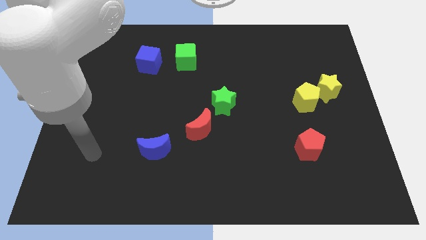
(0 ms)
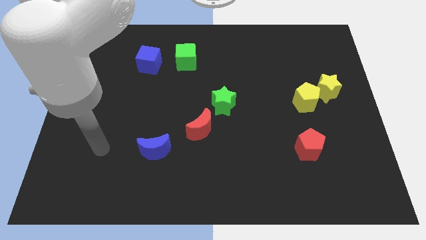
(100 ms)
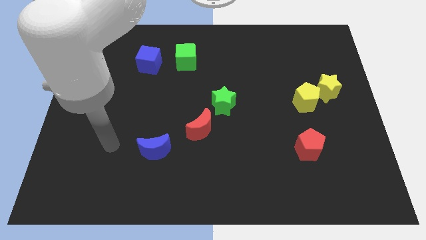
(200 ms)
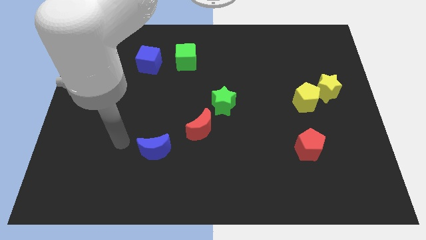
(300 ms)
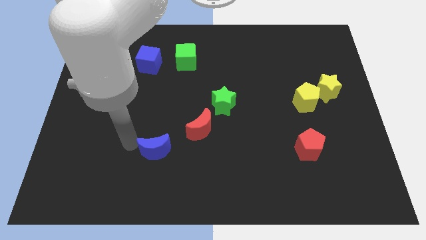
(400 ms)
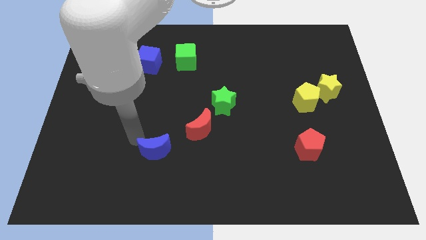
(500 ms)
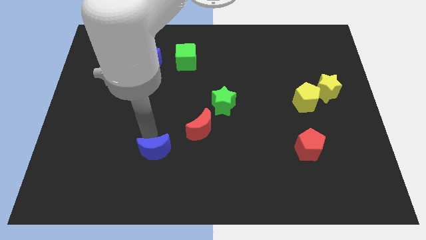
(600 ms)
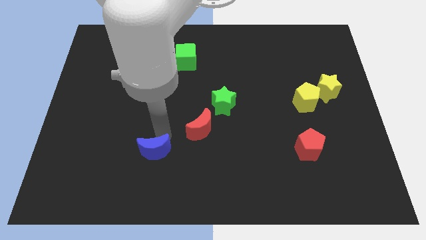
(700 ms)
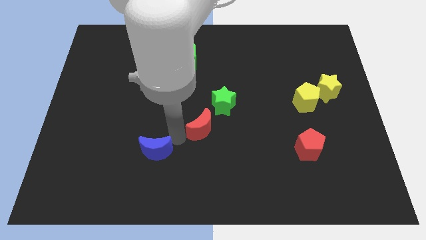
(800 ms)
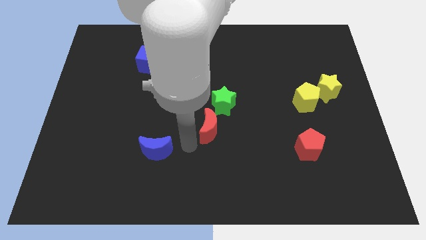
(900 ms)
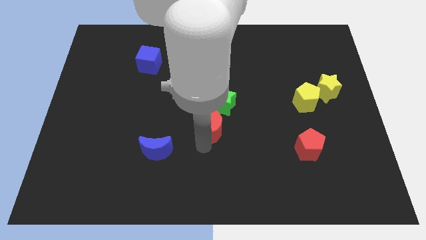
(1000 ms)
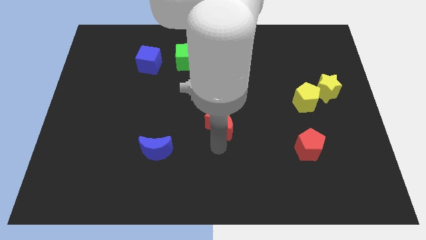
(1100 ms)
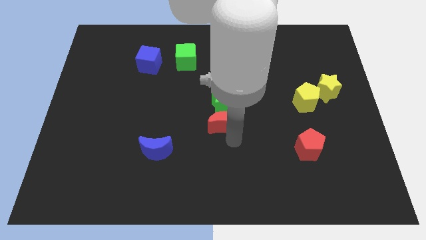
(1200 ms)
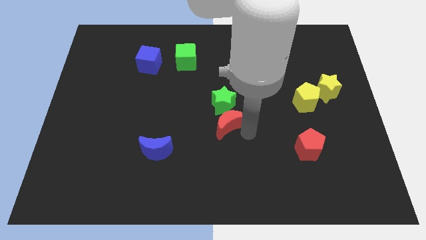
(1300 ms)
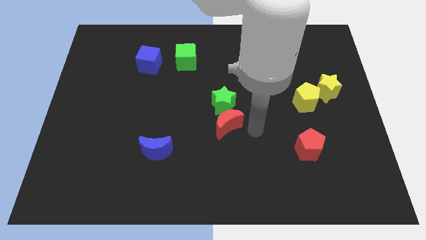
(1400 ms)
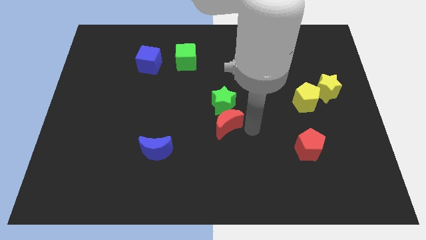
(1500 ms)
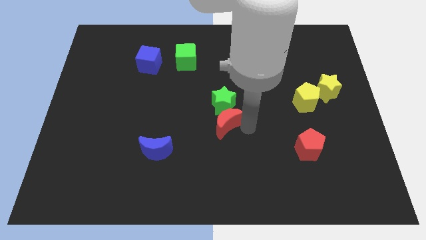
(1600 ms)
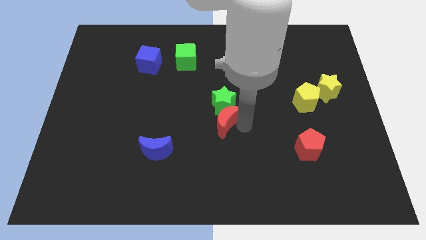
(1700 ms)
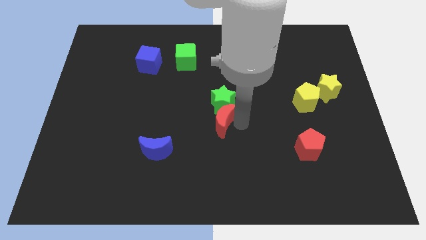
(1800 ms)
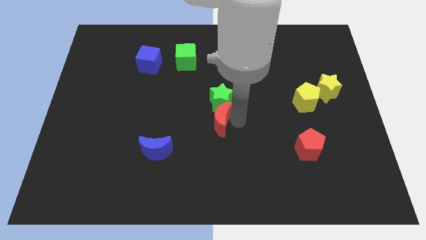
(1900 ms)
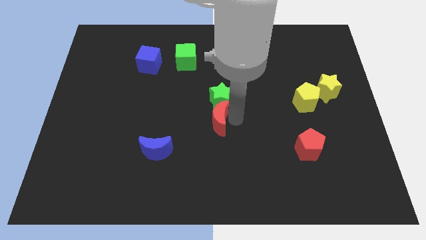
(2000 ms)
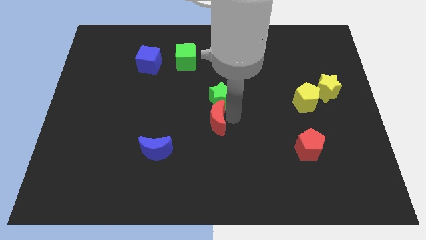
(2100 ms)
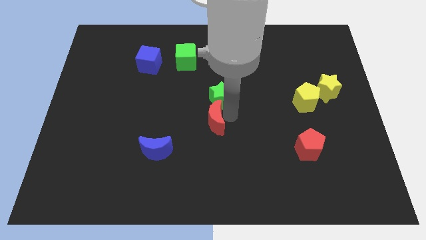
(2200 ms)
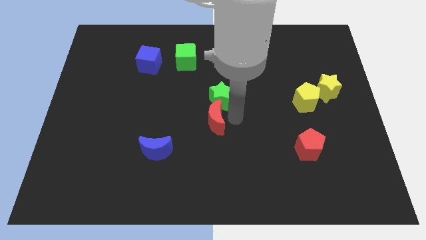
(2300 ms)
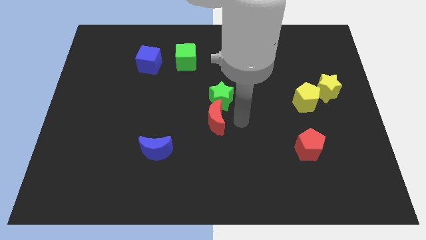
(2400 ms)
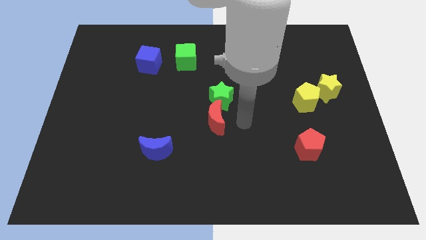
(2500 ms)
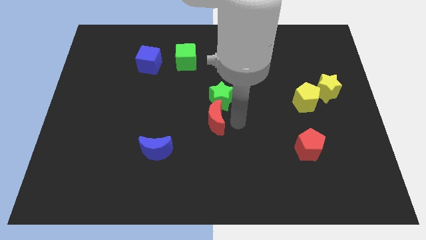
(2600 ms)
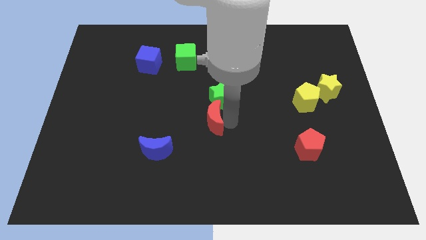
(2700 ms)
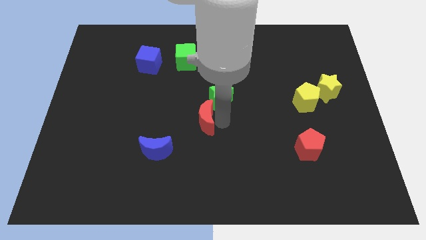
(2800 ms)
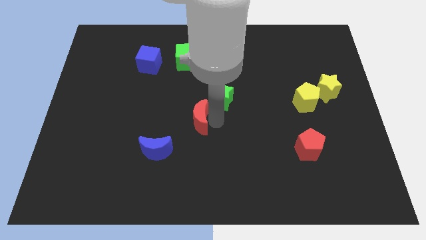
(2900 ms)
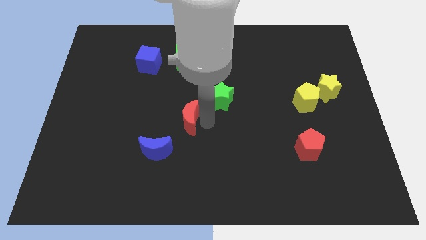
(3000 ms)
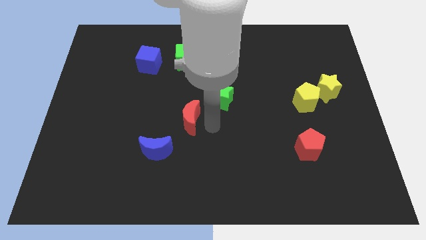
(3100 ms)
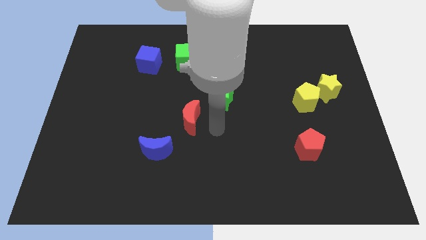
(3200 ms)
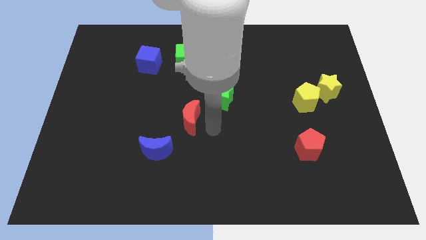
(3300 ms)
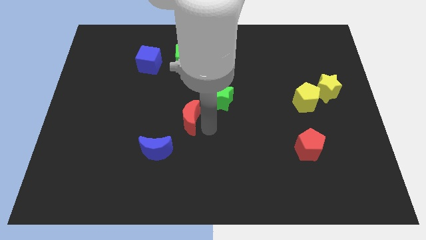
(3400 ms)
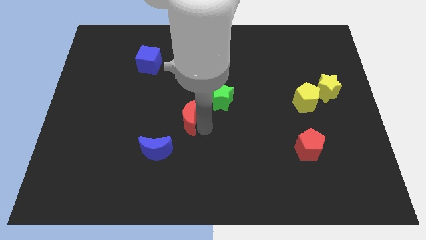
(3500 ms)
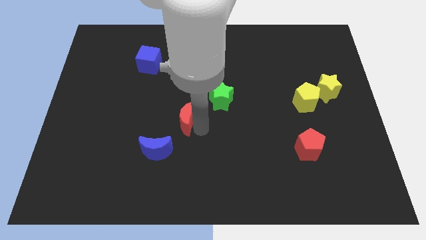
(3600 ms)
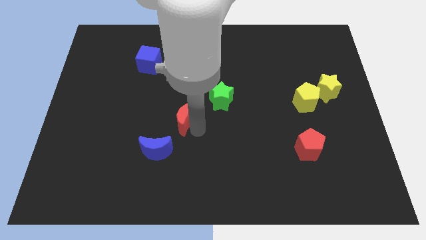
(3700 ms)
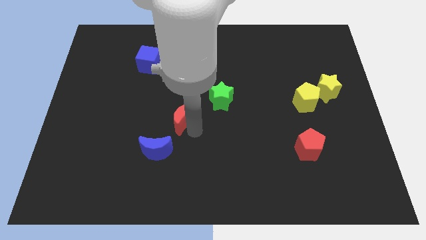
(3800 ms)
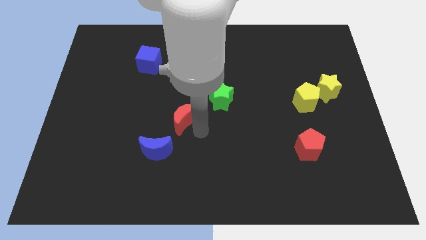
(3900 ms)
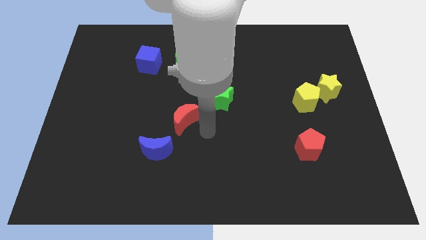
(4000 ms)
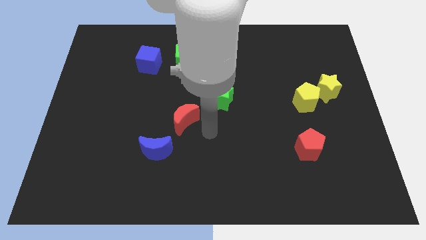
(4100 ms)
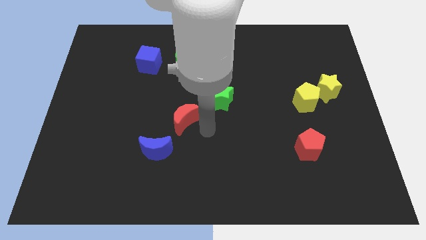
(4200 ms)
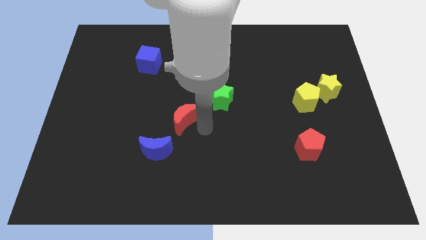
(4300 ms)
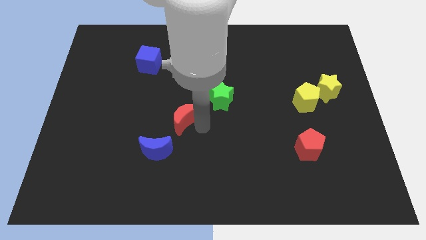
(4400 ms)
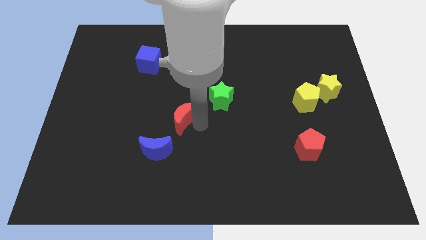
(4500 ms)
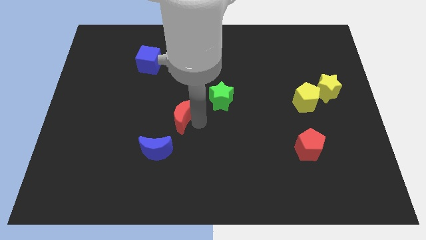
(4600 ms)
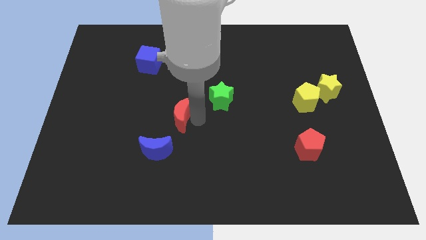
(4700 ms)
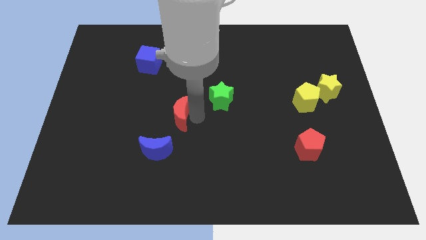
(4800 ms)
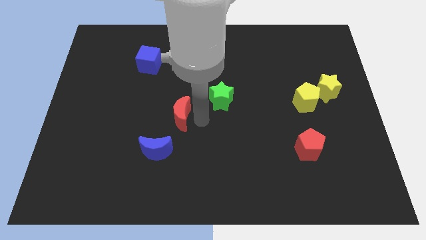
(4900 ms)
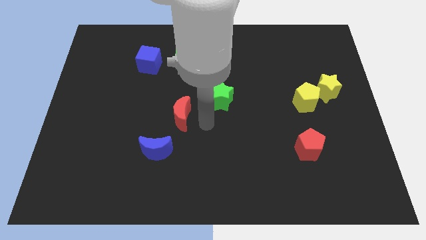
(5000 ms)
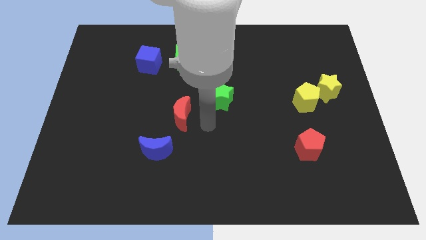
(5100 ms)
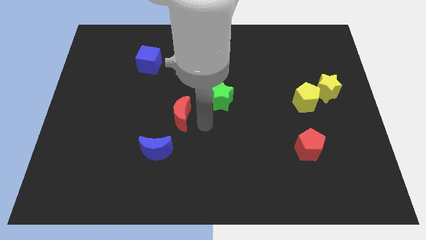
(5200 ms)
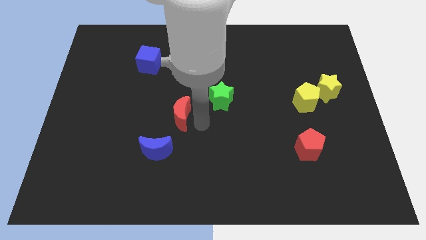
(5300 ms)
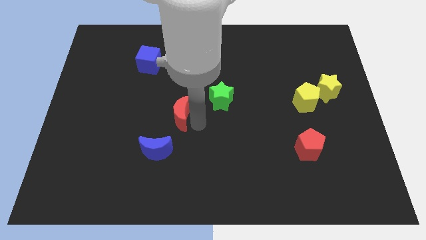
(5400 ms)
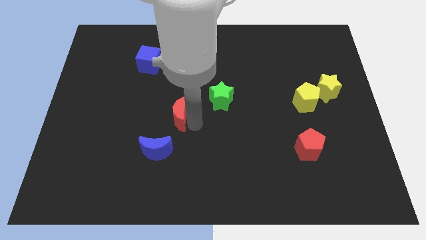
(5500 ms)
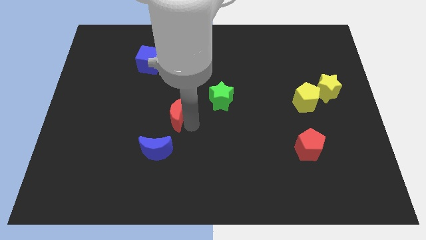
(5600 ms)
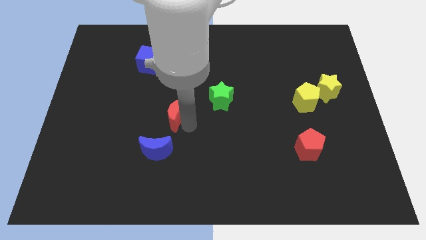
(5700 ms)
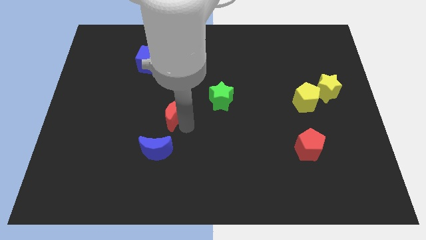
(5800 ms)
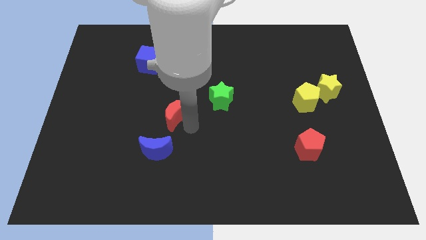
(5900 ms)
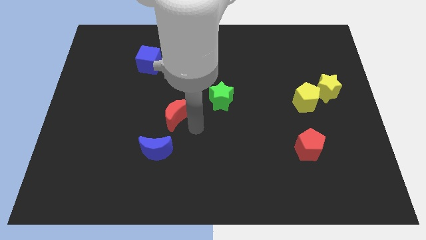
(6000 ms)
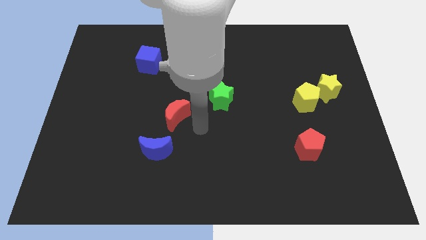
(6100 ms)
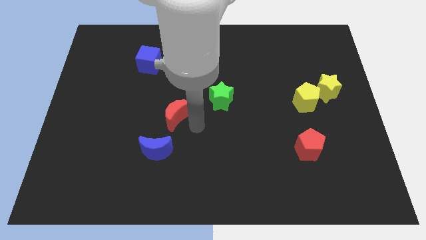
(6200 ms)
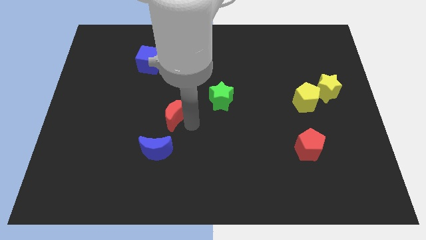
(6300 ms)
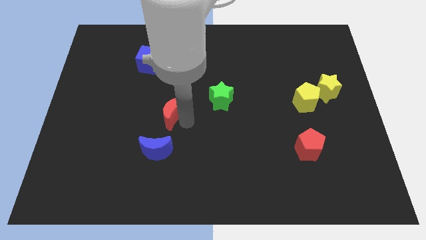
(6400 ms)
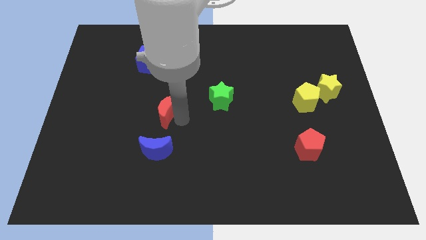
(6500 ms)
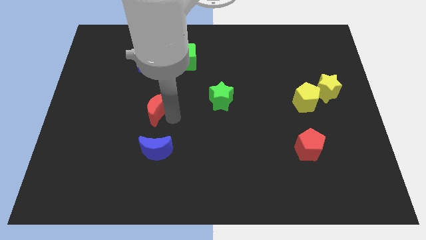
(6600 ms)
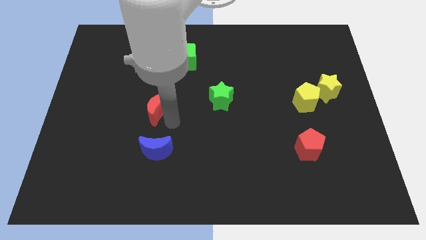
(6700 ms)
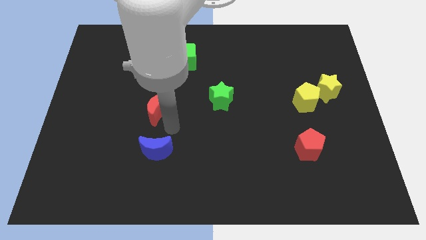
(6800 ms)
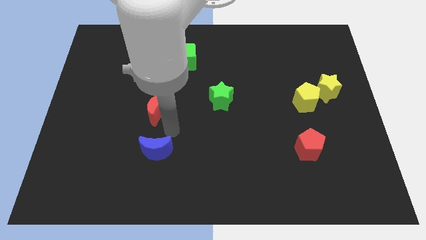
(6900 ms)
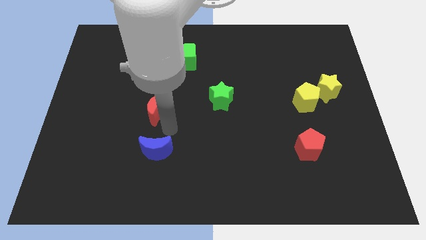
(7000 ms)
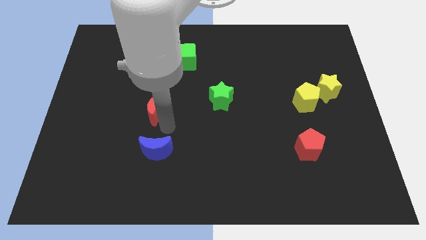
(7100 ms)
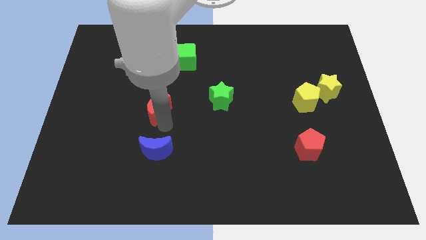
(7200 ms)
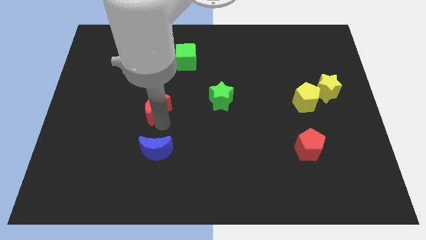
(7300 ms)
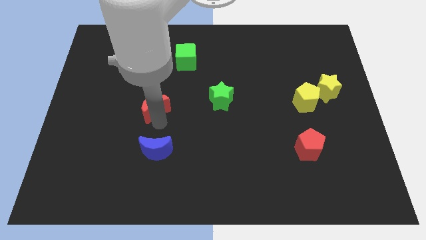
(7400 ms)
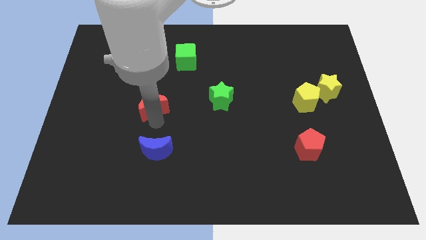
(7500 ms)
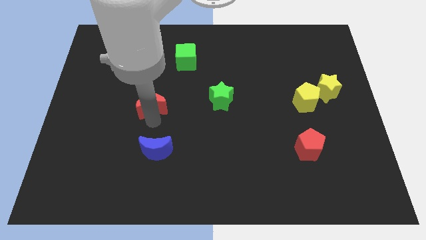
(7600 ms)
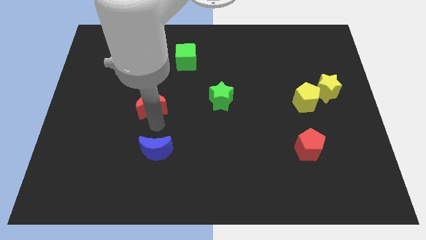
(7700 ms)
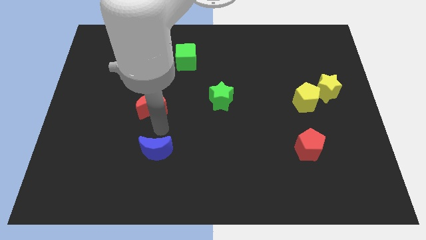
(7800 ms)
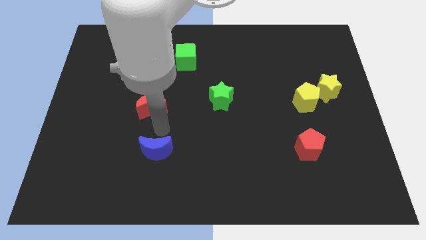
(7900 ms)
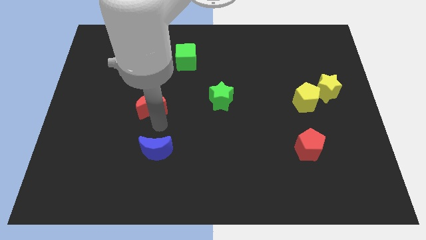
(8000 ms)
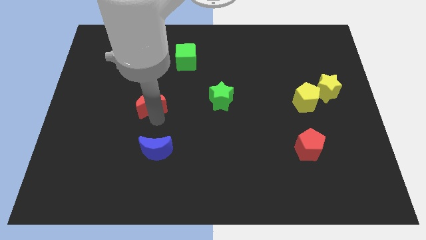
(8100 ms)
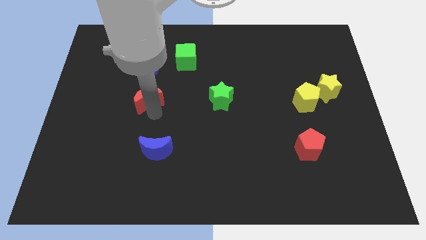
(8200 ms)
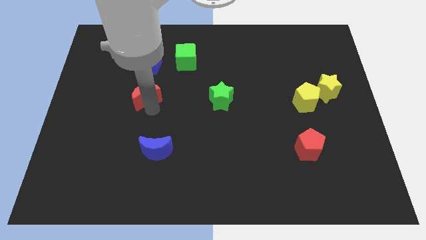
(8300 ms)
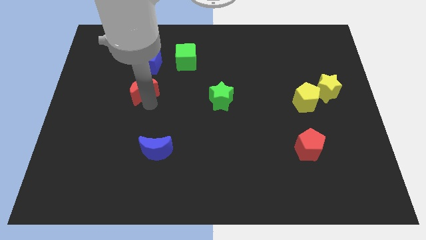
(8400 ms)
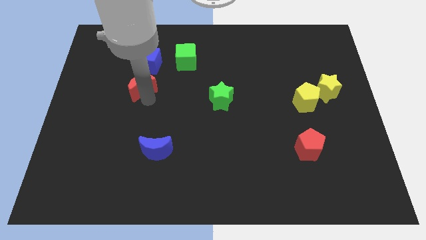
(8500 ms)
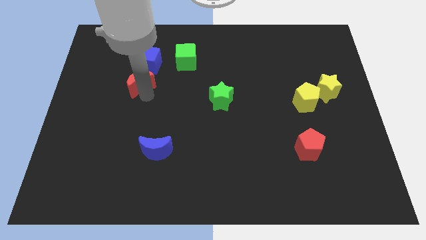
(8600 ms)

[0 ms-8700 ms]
push the red moon diagonally upwards and to the left
